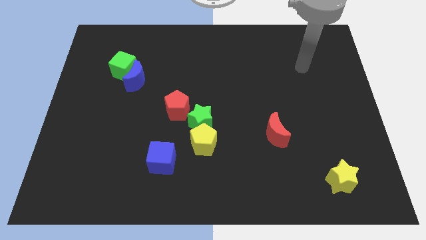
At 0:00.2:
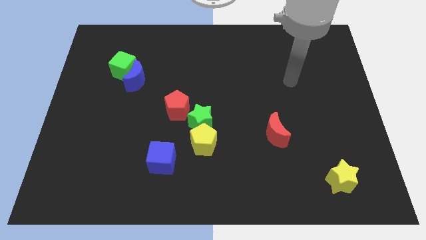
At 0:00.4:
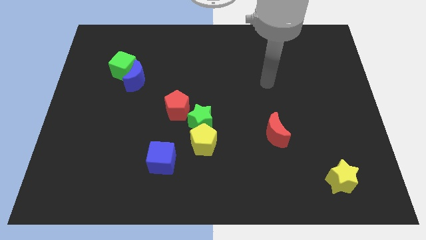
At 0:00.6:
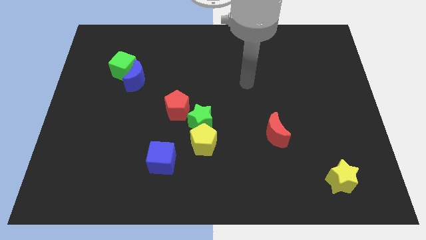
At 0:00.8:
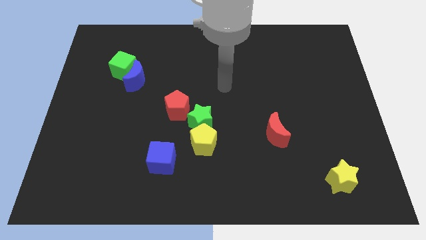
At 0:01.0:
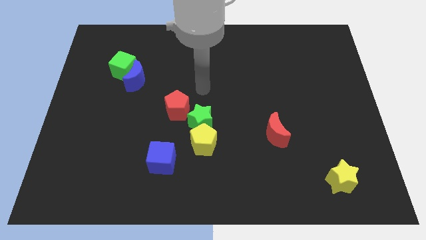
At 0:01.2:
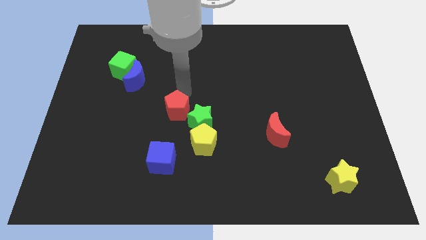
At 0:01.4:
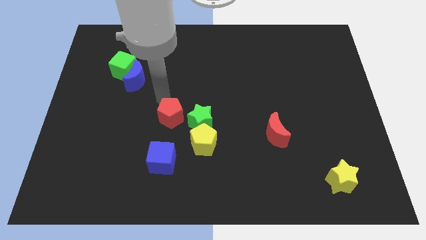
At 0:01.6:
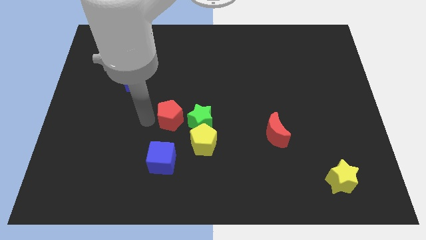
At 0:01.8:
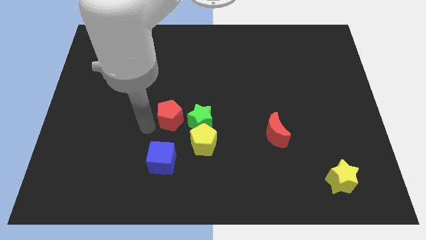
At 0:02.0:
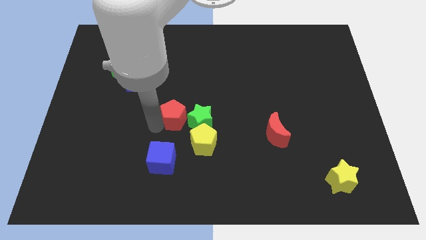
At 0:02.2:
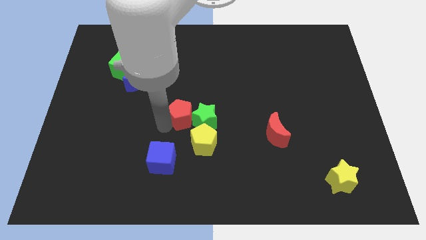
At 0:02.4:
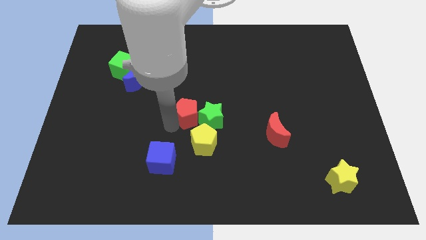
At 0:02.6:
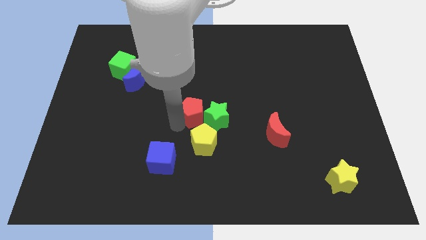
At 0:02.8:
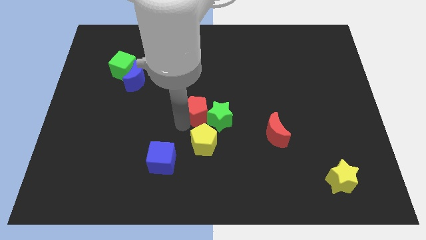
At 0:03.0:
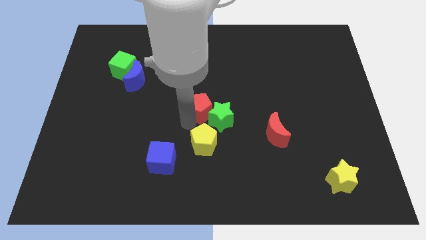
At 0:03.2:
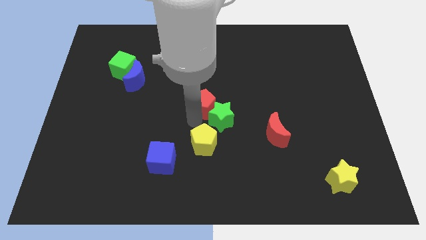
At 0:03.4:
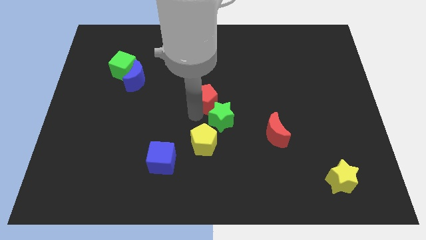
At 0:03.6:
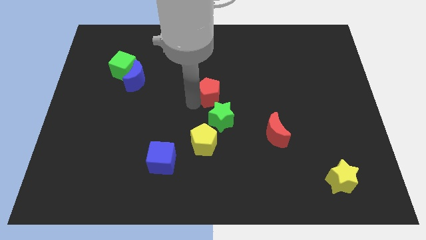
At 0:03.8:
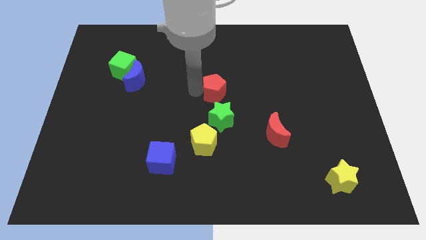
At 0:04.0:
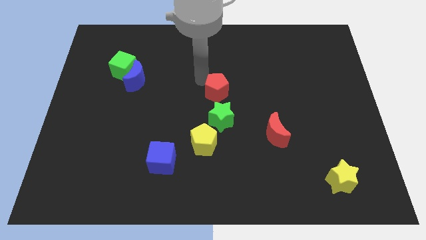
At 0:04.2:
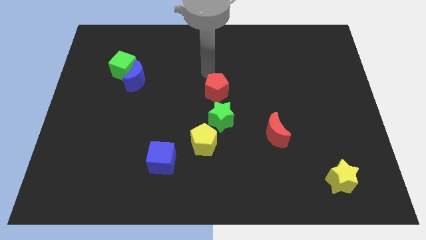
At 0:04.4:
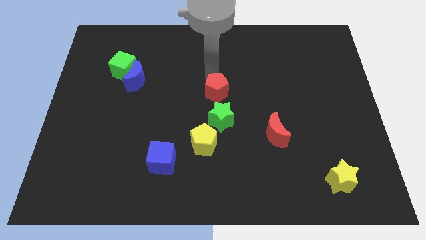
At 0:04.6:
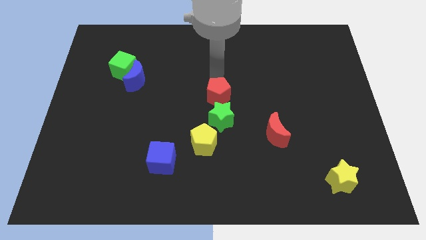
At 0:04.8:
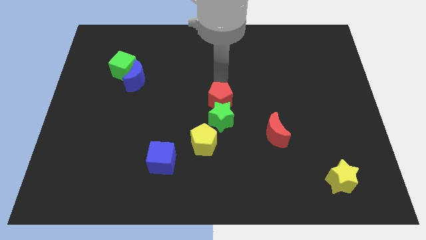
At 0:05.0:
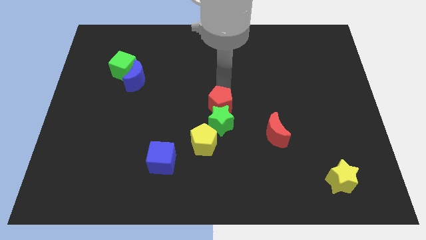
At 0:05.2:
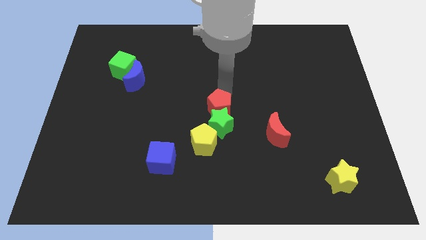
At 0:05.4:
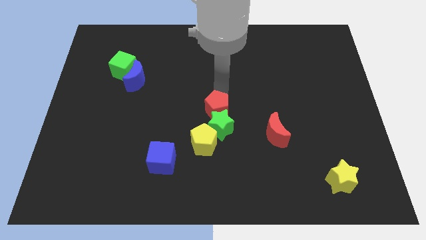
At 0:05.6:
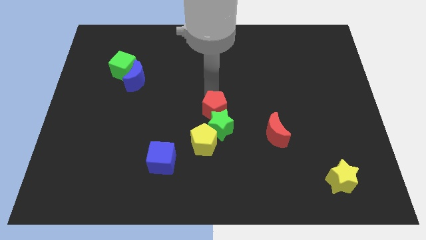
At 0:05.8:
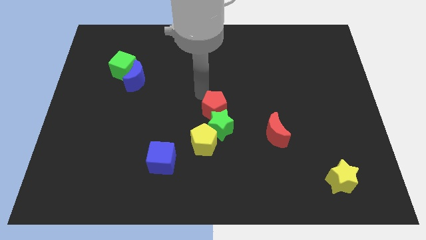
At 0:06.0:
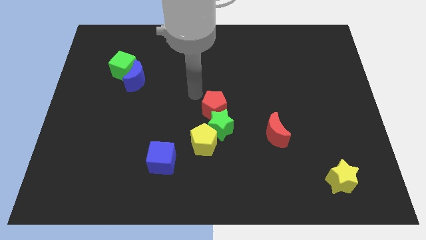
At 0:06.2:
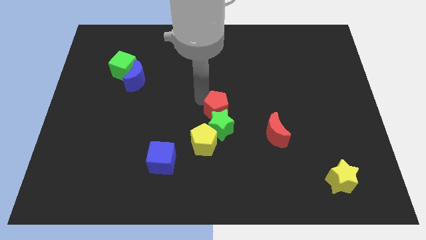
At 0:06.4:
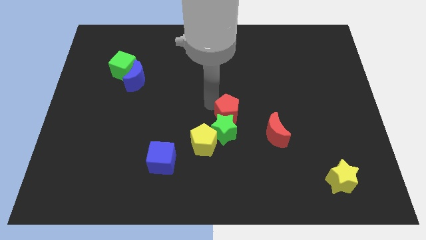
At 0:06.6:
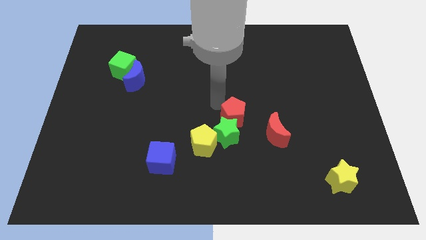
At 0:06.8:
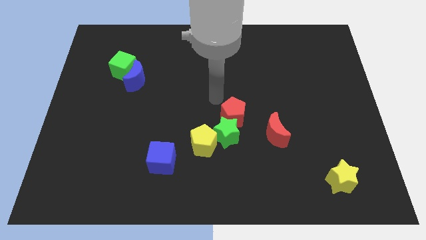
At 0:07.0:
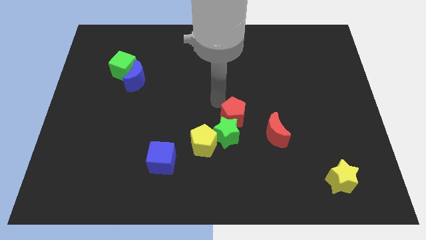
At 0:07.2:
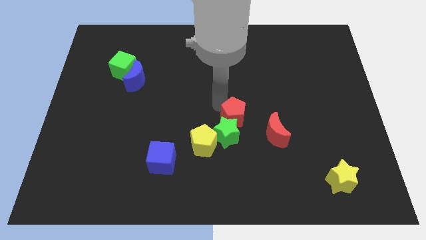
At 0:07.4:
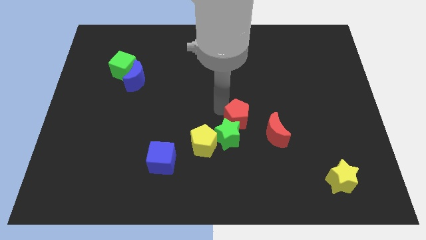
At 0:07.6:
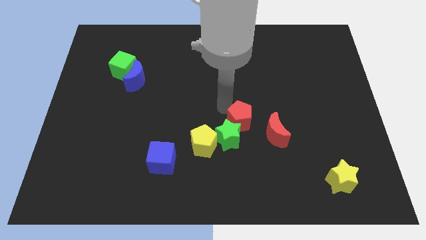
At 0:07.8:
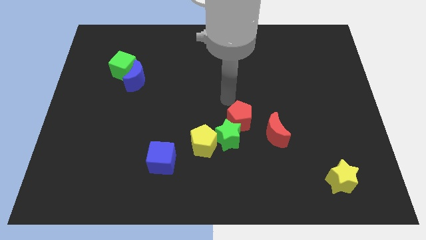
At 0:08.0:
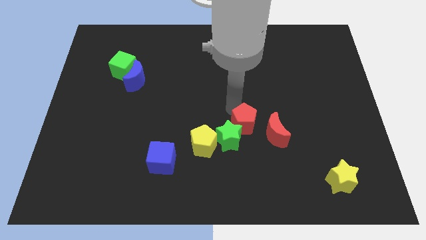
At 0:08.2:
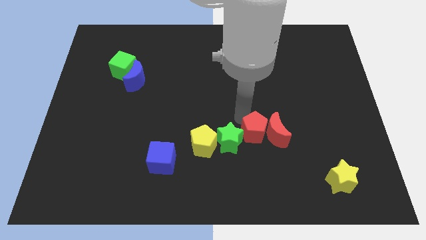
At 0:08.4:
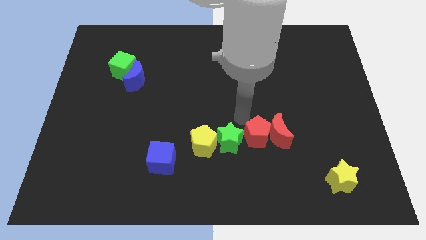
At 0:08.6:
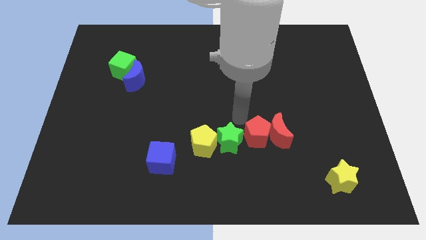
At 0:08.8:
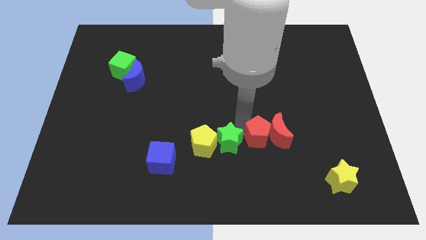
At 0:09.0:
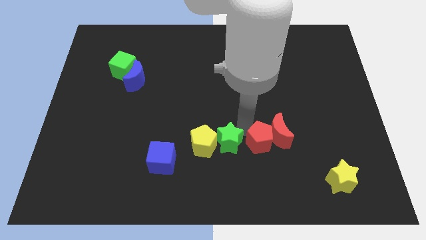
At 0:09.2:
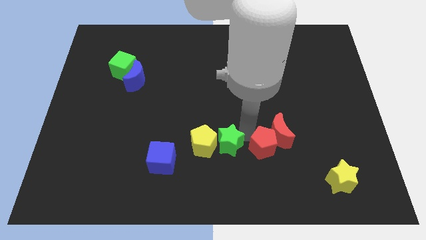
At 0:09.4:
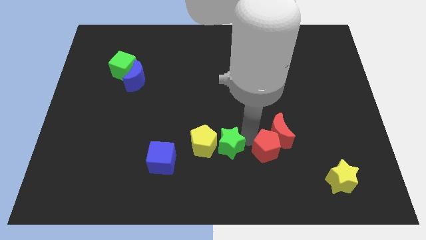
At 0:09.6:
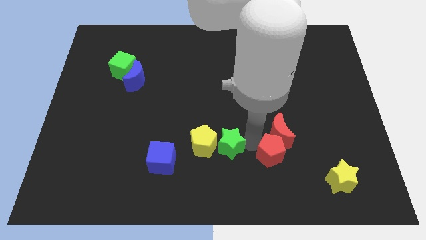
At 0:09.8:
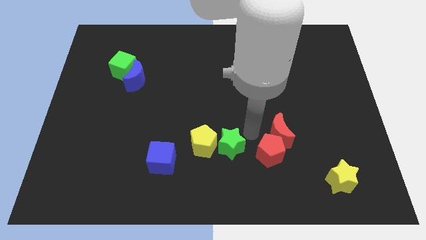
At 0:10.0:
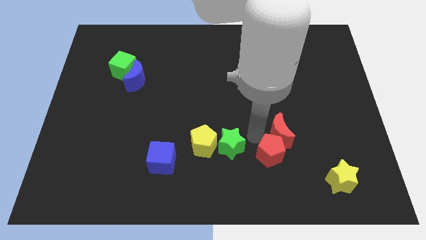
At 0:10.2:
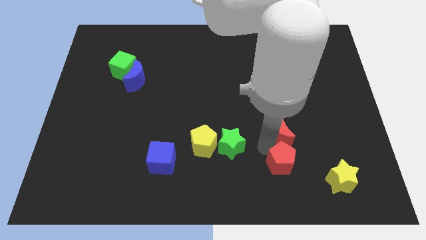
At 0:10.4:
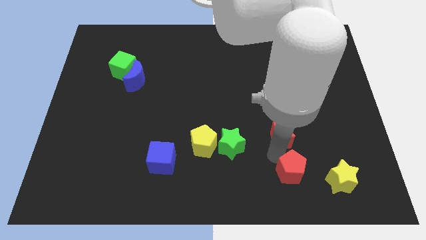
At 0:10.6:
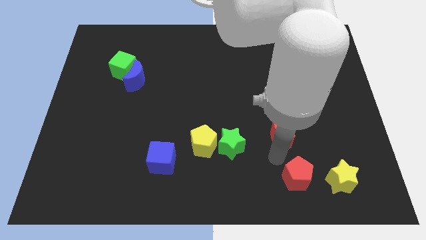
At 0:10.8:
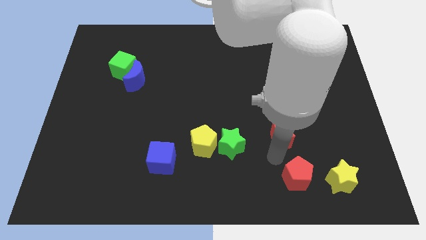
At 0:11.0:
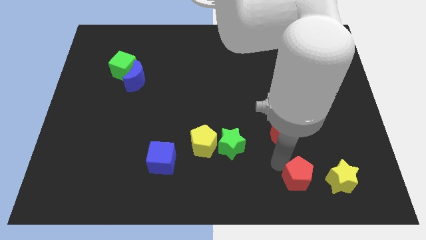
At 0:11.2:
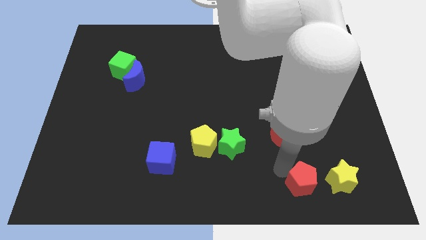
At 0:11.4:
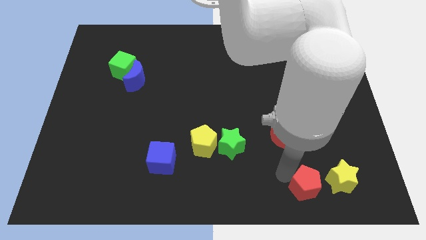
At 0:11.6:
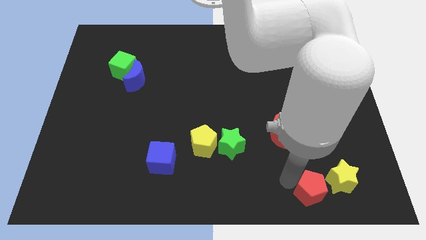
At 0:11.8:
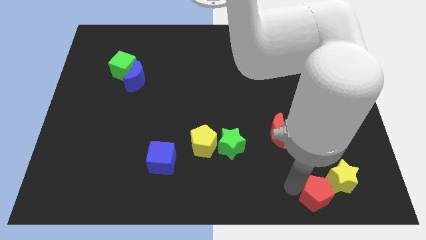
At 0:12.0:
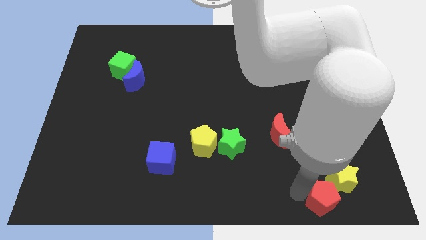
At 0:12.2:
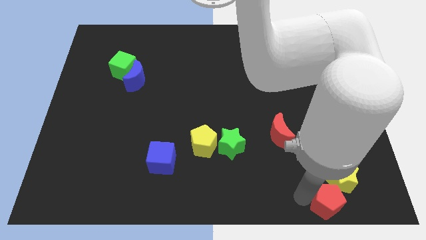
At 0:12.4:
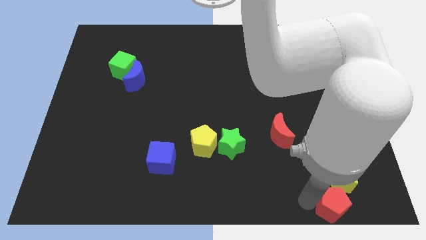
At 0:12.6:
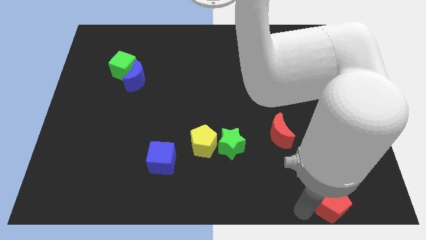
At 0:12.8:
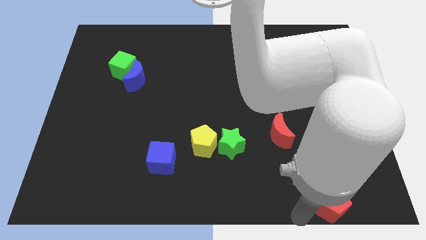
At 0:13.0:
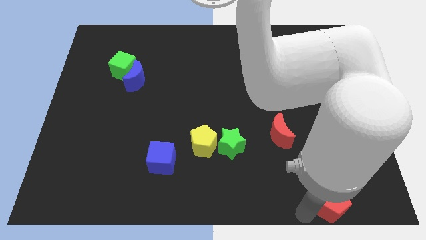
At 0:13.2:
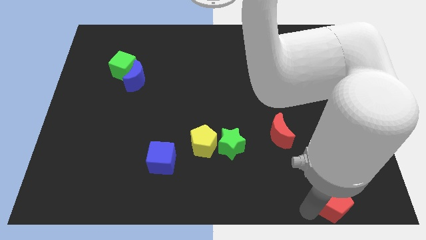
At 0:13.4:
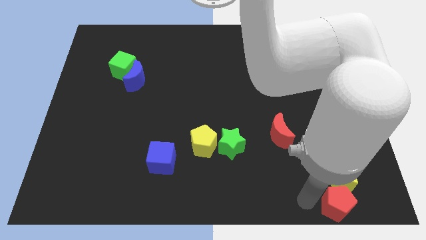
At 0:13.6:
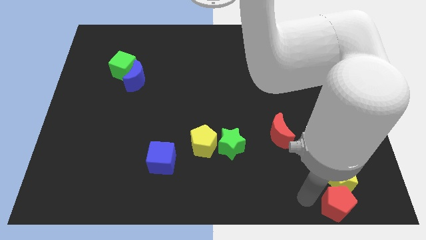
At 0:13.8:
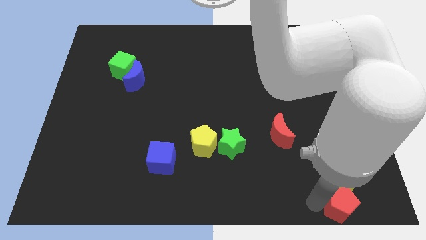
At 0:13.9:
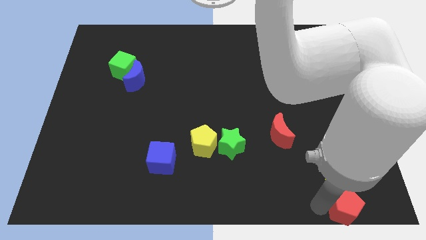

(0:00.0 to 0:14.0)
slide the red pentagon to the bottom right of the board
